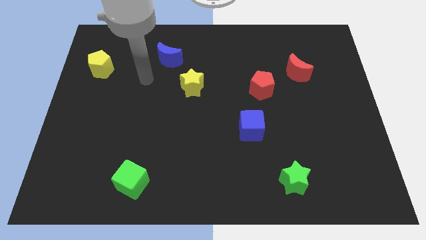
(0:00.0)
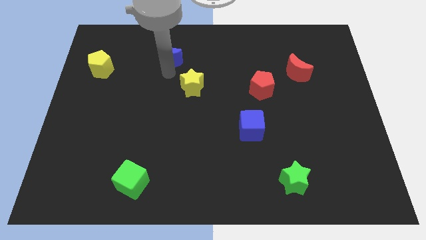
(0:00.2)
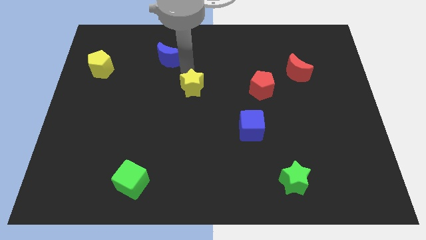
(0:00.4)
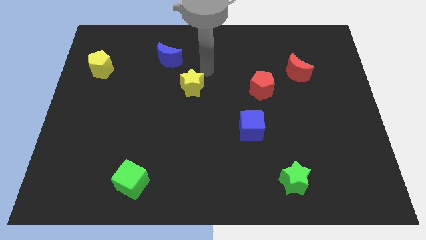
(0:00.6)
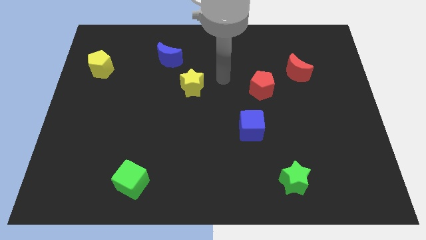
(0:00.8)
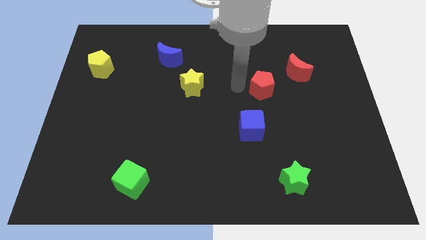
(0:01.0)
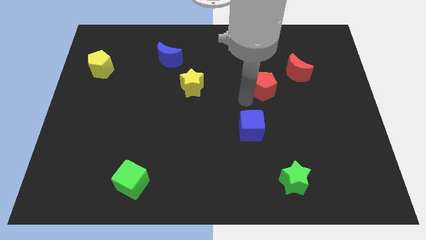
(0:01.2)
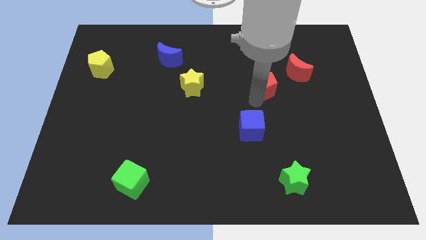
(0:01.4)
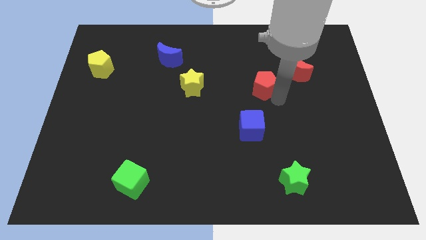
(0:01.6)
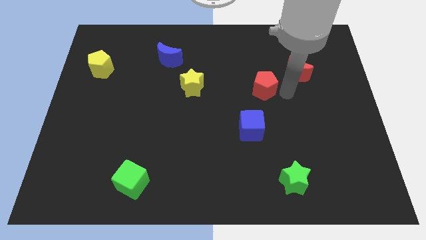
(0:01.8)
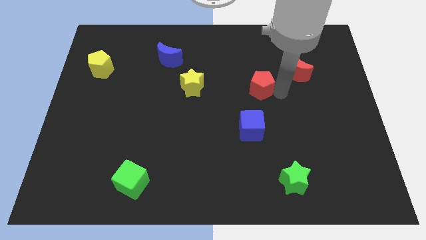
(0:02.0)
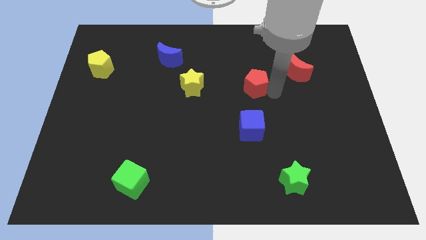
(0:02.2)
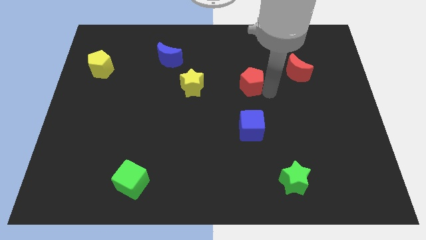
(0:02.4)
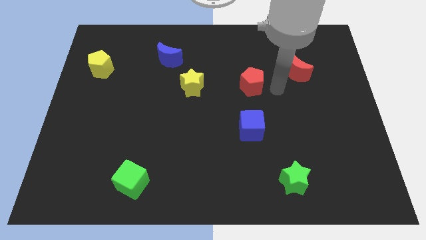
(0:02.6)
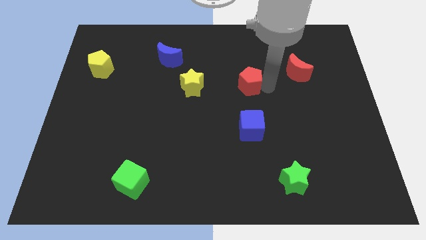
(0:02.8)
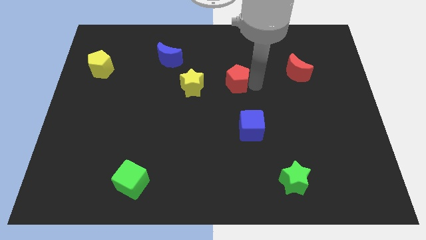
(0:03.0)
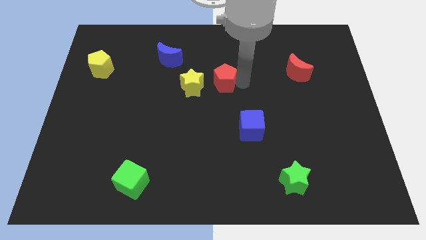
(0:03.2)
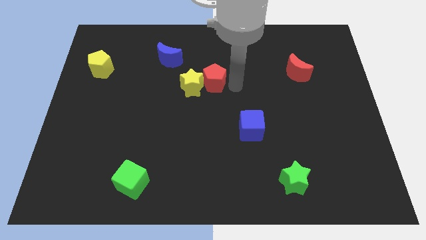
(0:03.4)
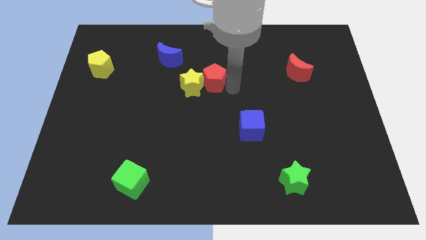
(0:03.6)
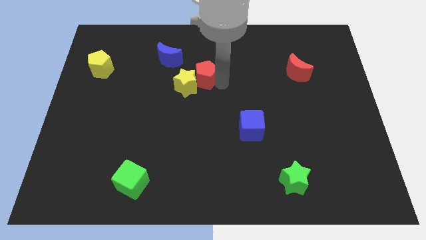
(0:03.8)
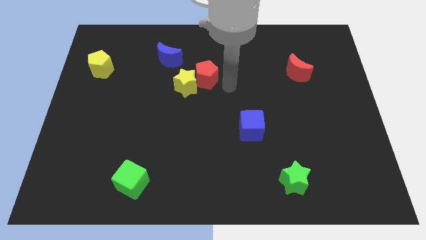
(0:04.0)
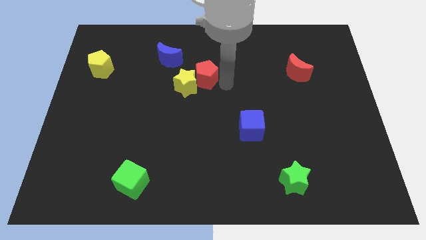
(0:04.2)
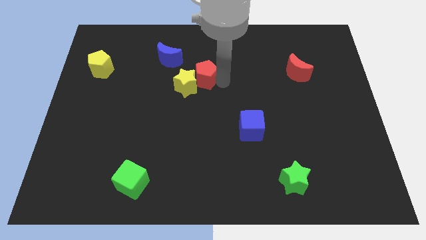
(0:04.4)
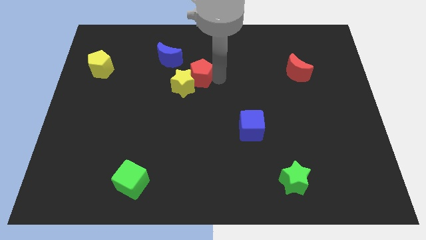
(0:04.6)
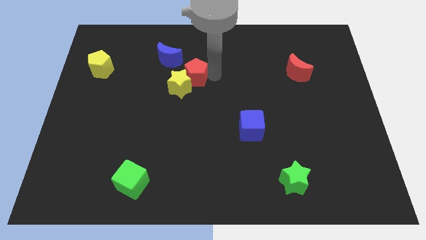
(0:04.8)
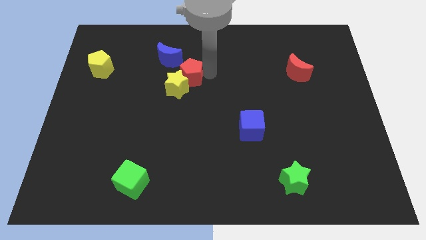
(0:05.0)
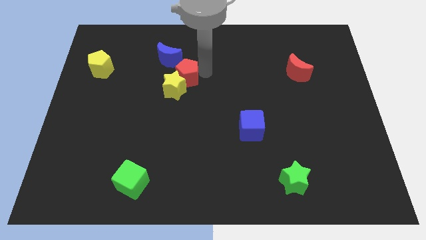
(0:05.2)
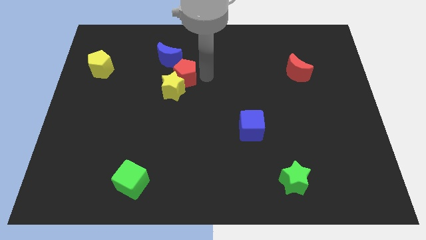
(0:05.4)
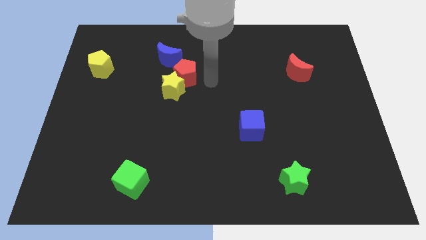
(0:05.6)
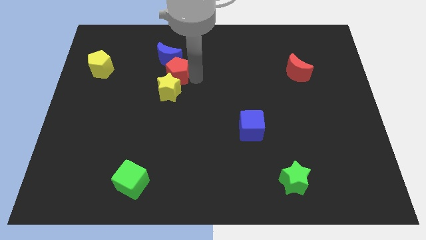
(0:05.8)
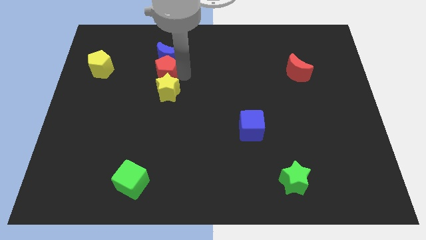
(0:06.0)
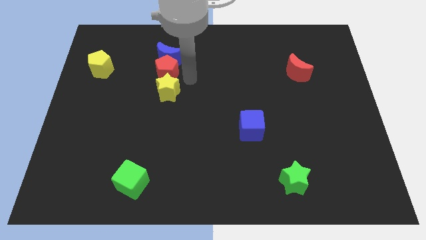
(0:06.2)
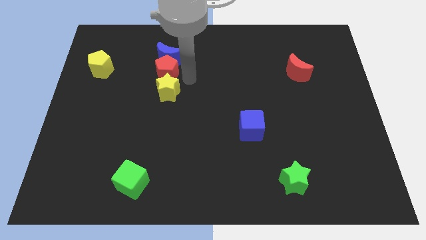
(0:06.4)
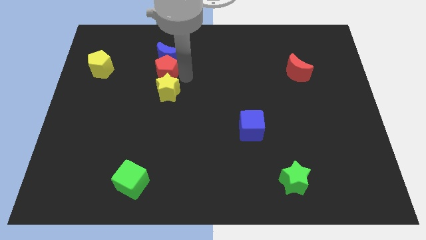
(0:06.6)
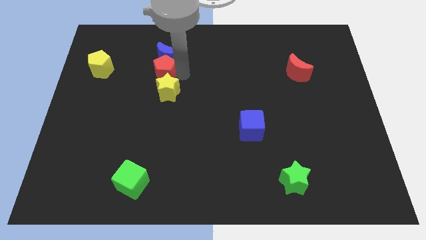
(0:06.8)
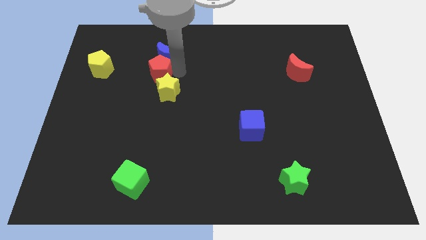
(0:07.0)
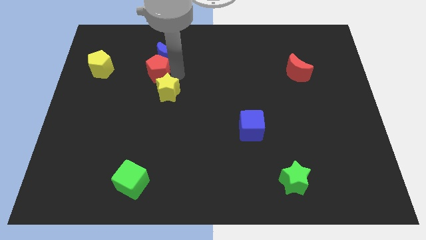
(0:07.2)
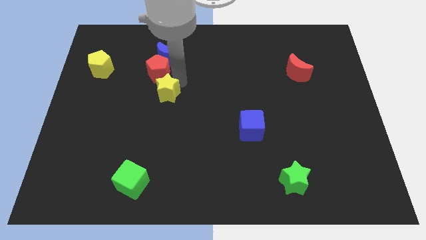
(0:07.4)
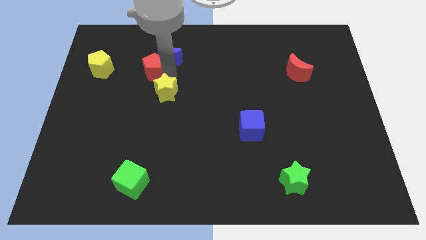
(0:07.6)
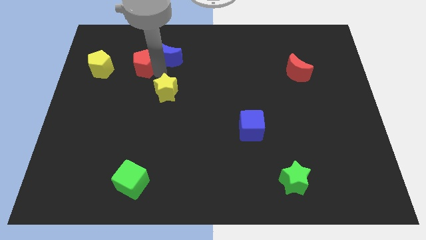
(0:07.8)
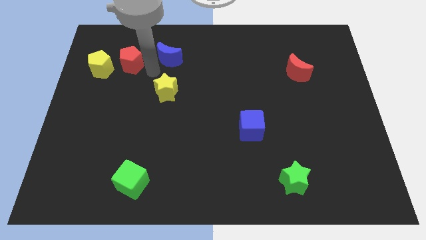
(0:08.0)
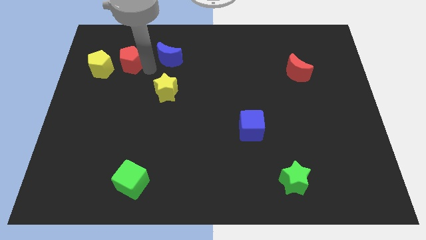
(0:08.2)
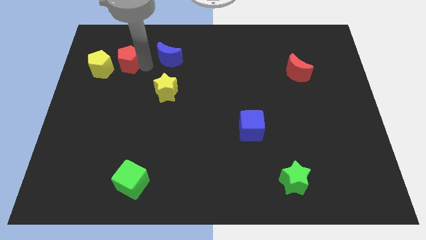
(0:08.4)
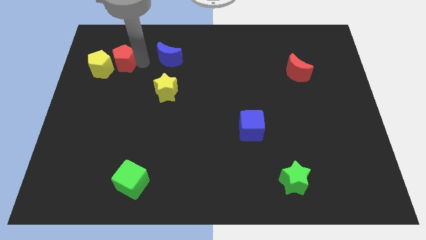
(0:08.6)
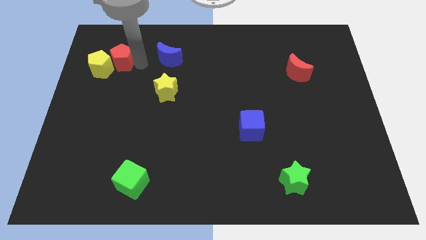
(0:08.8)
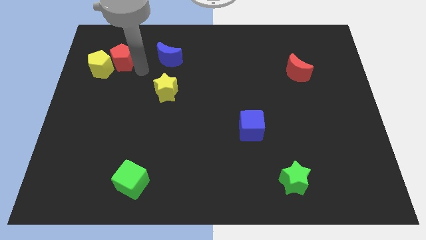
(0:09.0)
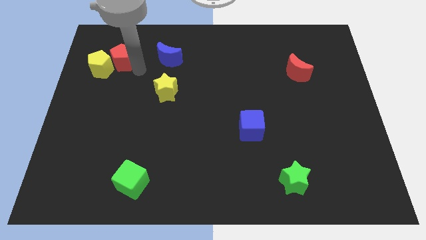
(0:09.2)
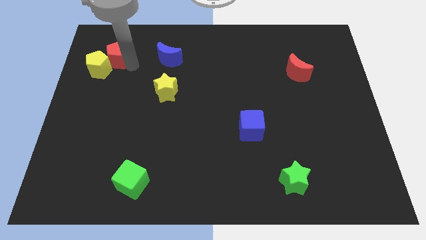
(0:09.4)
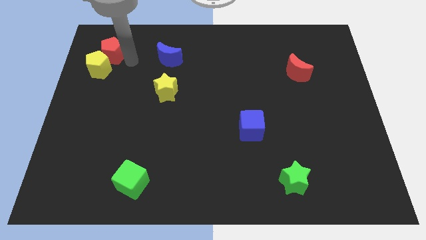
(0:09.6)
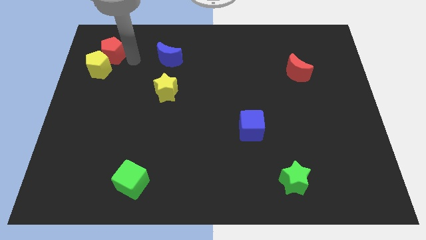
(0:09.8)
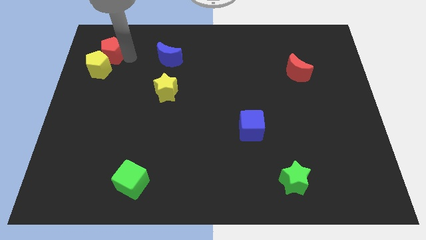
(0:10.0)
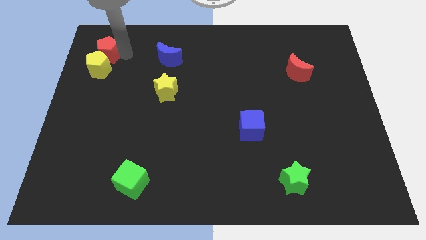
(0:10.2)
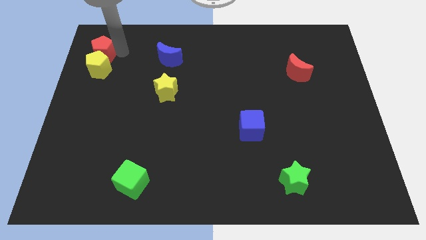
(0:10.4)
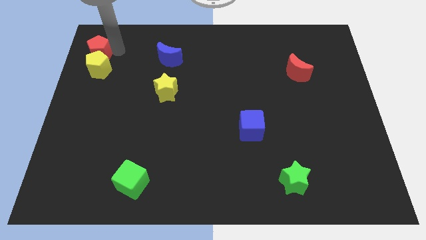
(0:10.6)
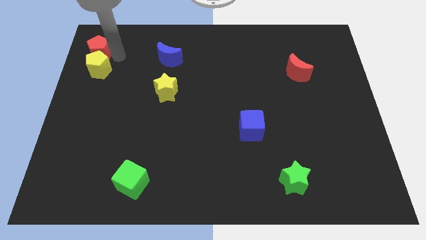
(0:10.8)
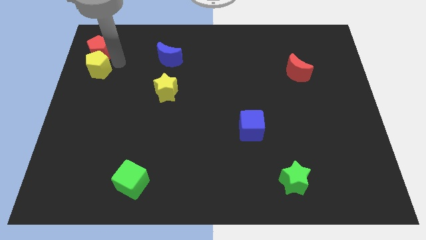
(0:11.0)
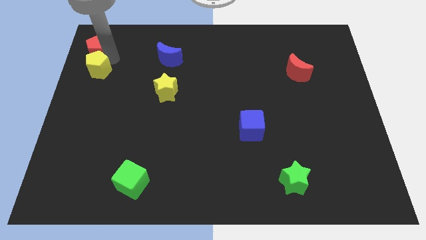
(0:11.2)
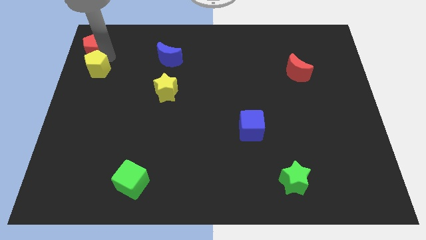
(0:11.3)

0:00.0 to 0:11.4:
push the red pentagon to the top left of the board

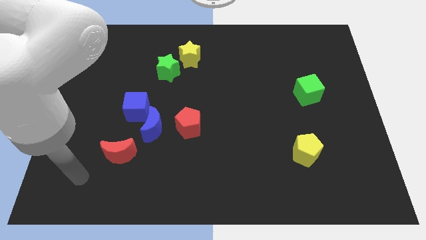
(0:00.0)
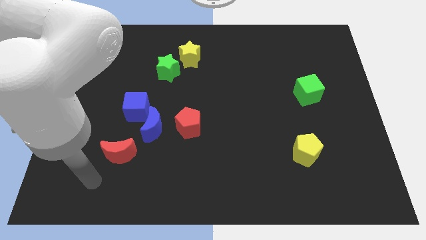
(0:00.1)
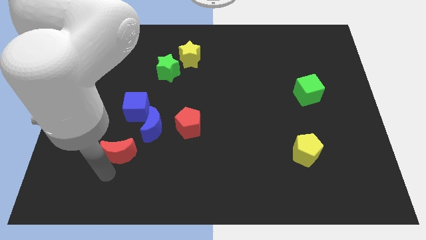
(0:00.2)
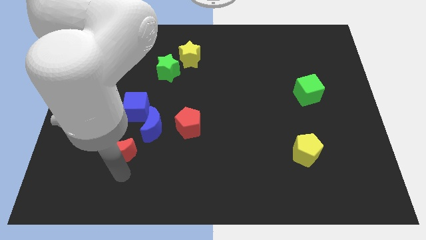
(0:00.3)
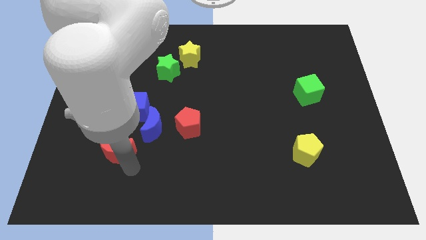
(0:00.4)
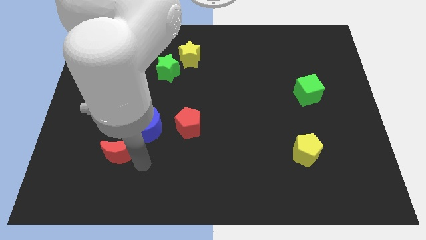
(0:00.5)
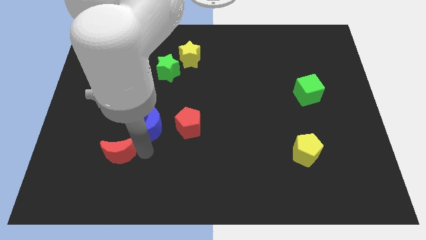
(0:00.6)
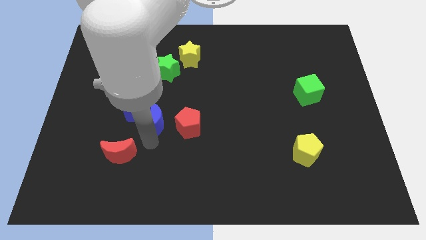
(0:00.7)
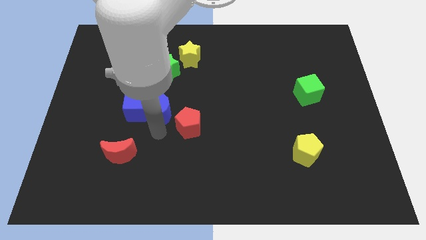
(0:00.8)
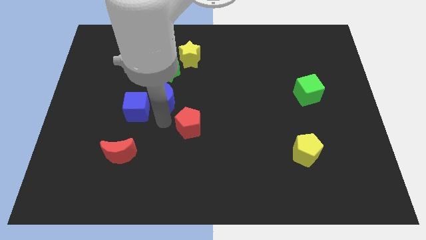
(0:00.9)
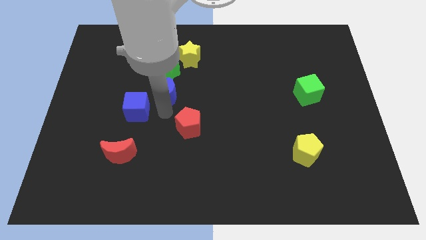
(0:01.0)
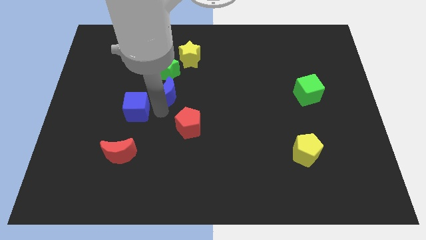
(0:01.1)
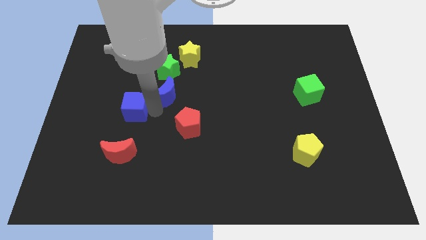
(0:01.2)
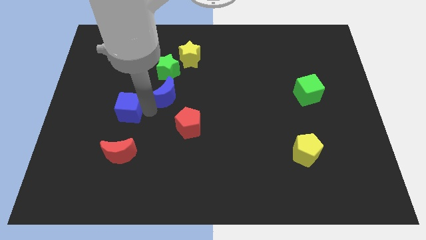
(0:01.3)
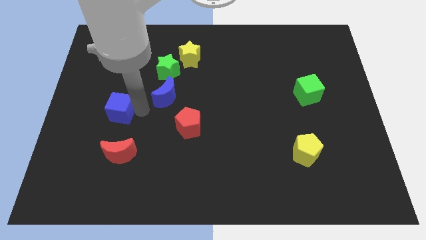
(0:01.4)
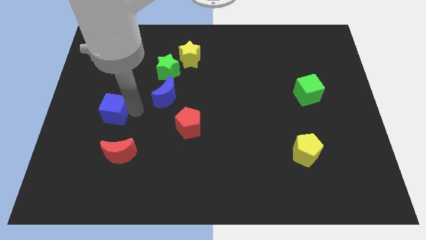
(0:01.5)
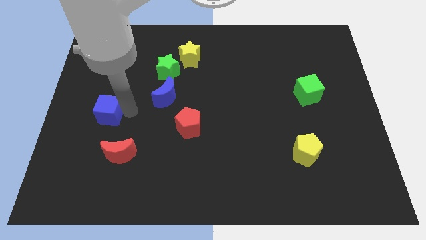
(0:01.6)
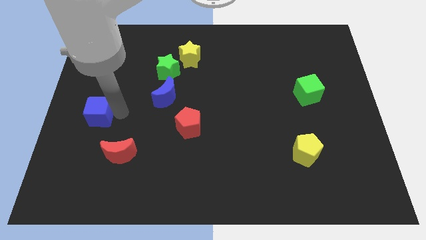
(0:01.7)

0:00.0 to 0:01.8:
slide the blue cube to the center left
